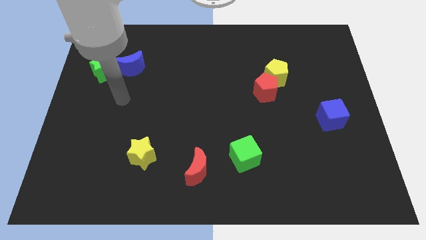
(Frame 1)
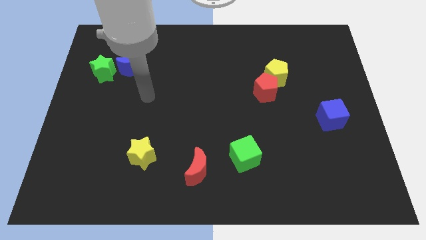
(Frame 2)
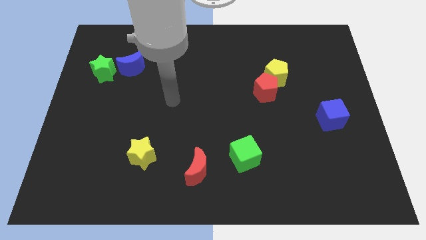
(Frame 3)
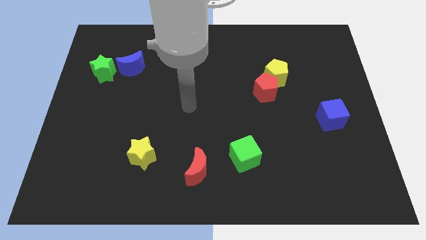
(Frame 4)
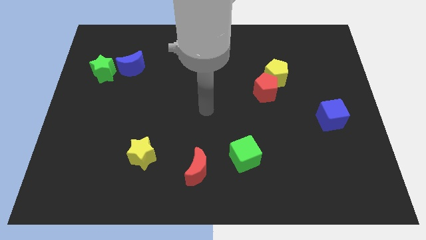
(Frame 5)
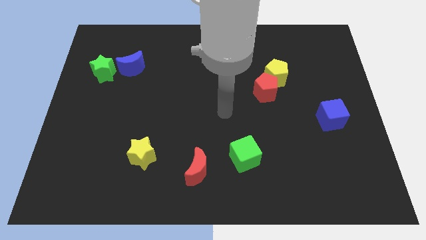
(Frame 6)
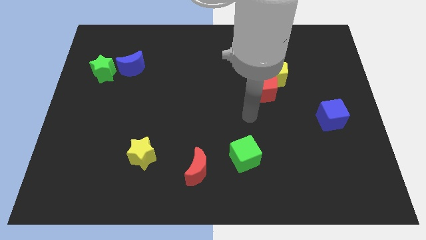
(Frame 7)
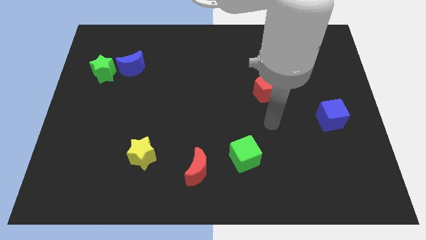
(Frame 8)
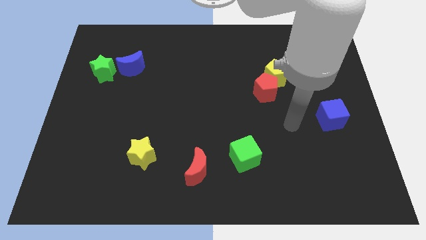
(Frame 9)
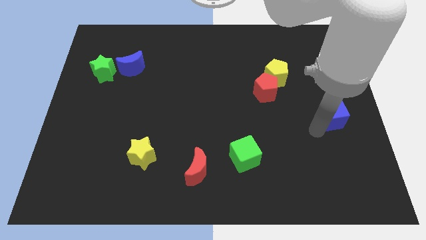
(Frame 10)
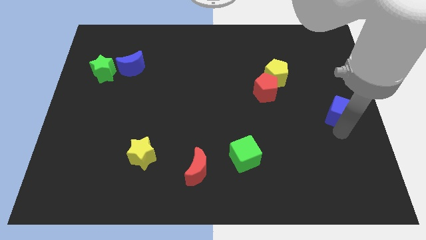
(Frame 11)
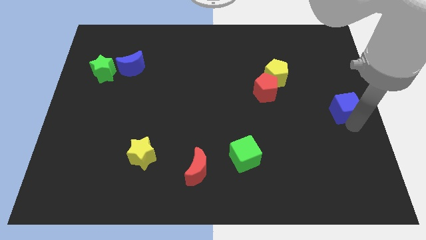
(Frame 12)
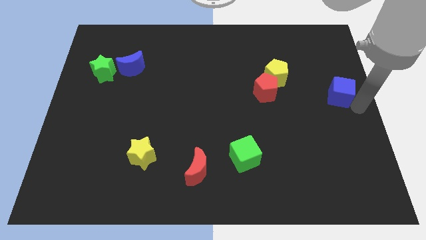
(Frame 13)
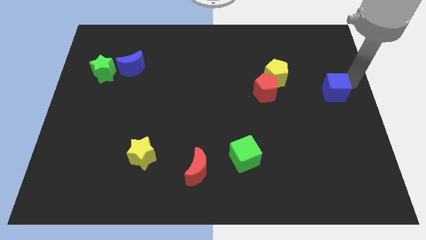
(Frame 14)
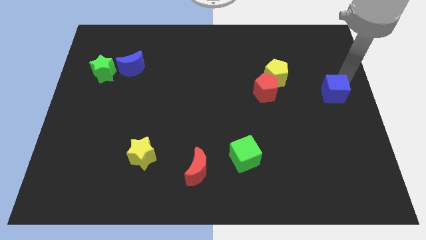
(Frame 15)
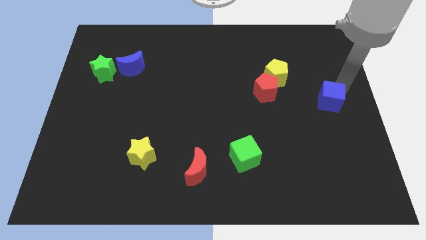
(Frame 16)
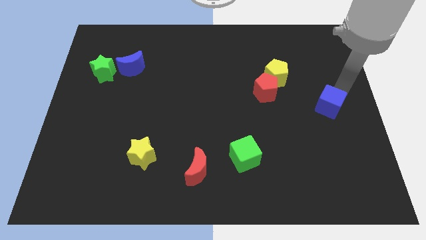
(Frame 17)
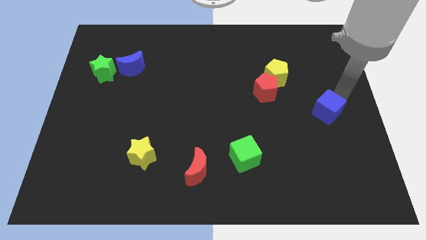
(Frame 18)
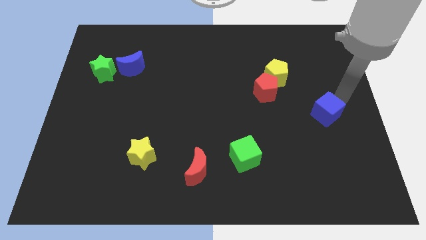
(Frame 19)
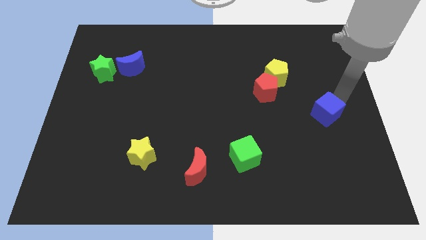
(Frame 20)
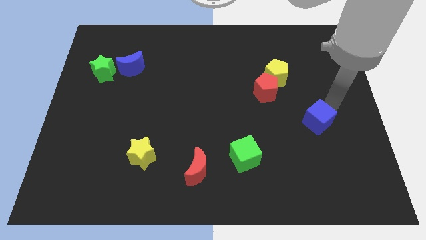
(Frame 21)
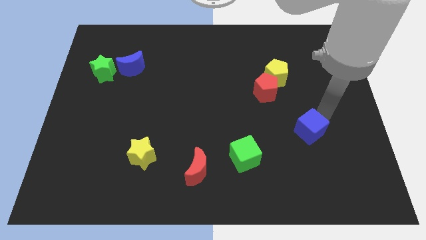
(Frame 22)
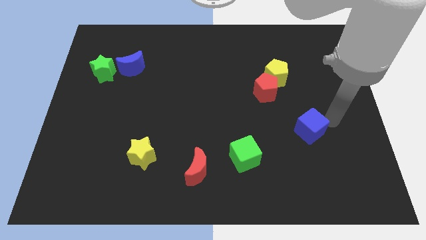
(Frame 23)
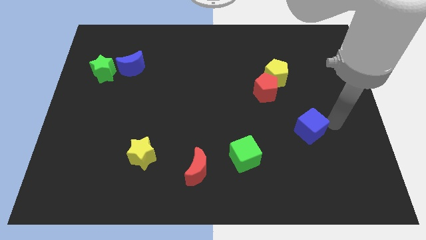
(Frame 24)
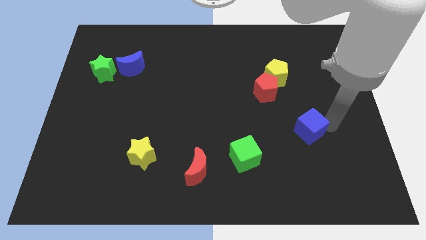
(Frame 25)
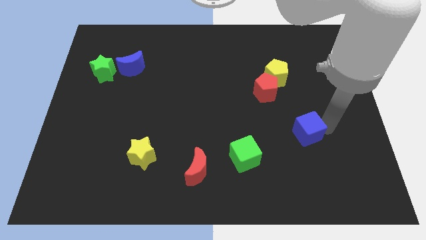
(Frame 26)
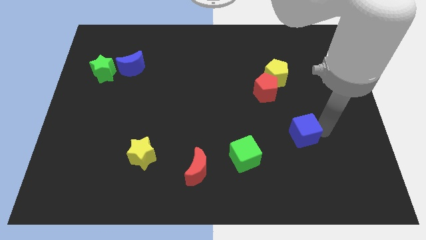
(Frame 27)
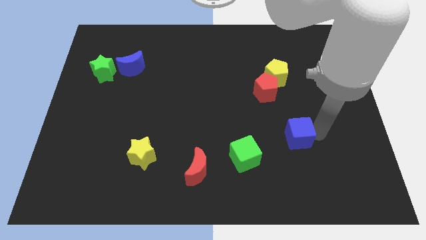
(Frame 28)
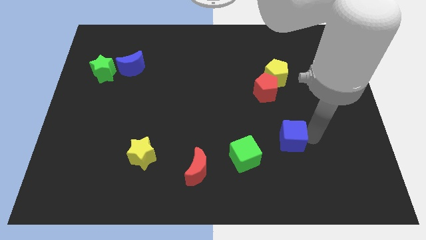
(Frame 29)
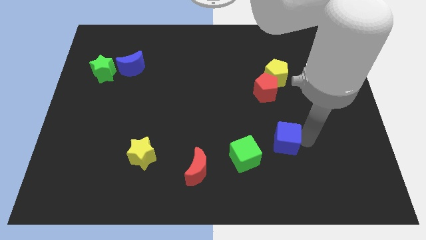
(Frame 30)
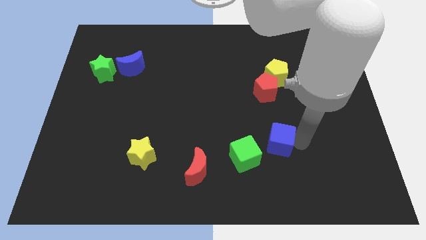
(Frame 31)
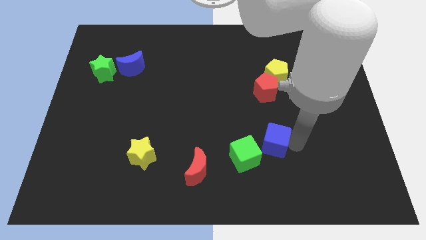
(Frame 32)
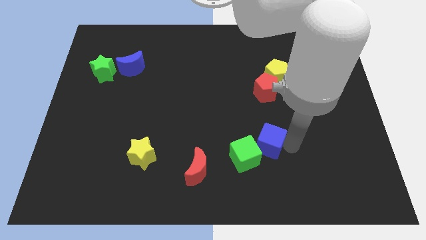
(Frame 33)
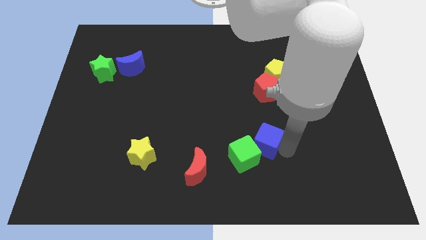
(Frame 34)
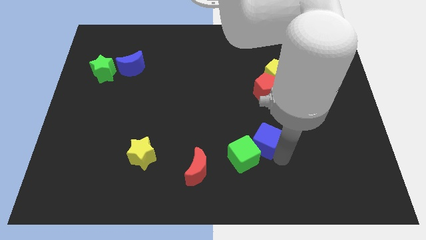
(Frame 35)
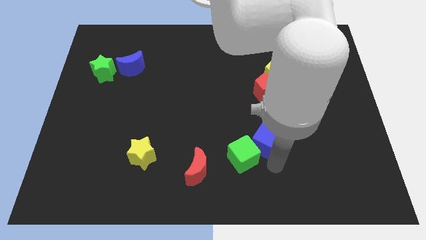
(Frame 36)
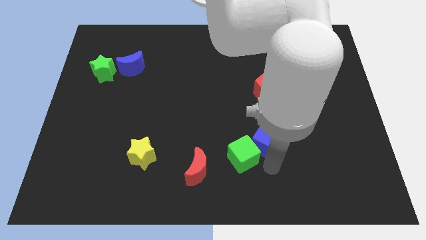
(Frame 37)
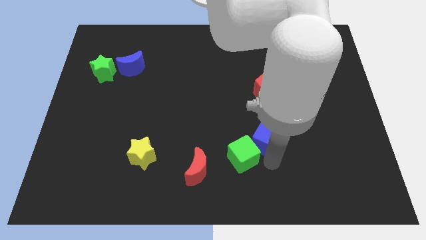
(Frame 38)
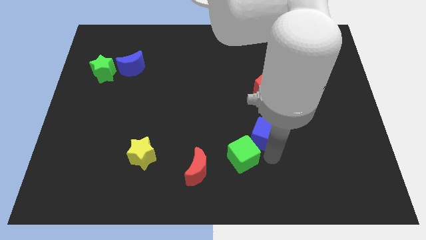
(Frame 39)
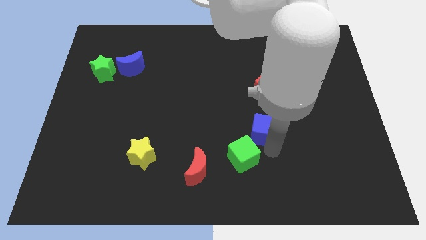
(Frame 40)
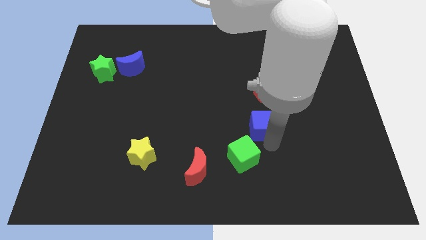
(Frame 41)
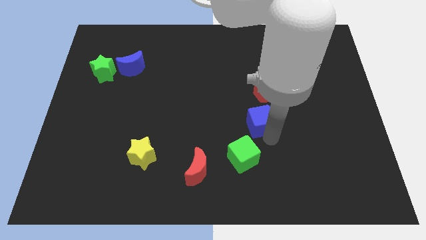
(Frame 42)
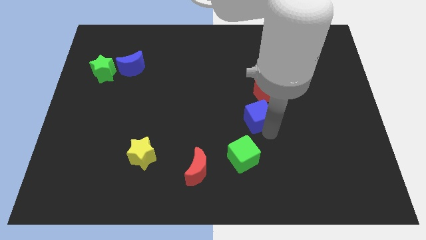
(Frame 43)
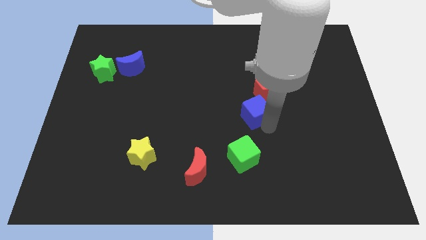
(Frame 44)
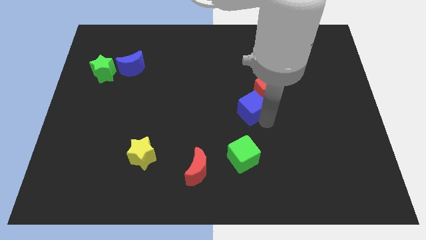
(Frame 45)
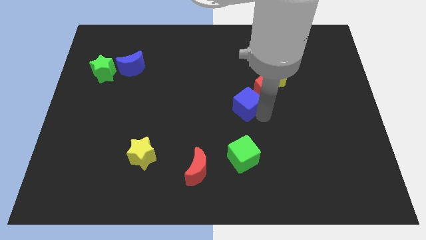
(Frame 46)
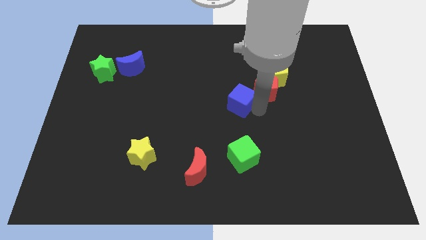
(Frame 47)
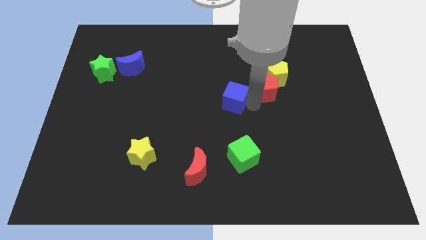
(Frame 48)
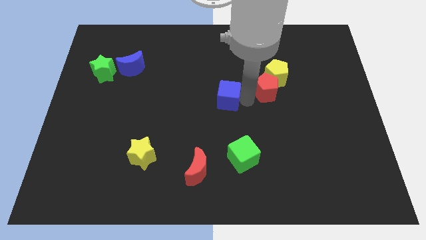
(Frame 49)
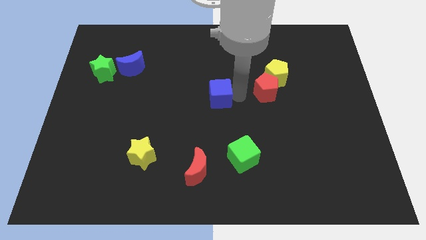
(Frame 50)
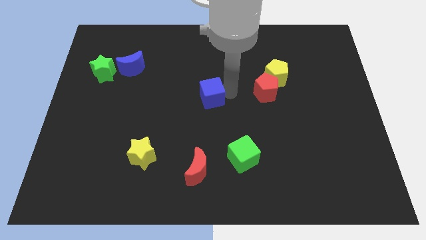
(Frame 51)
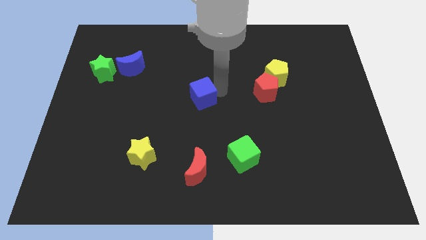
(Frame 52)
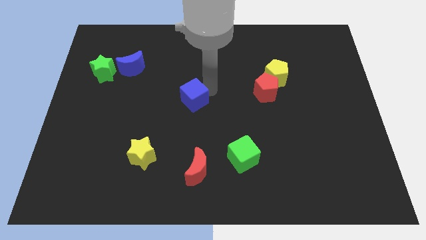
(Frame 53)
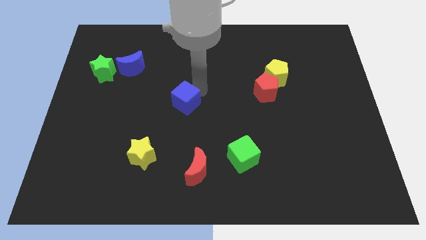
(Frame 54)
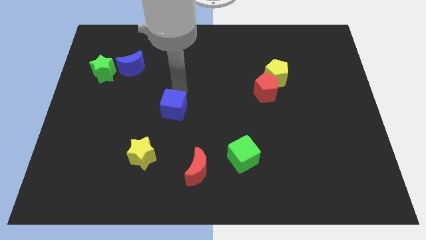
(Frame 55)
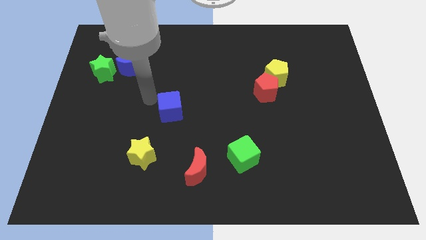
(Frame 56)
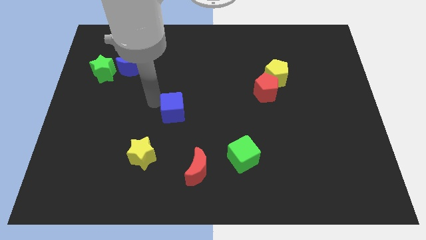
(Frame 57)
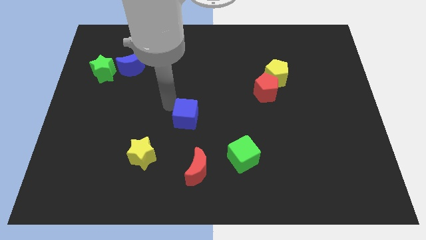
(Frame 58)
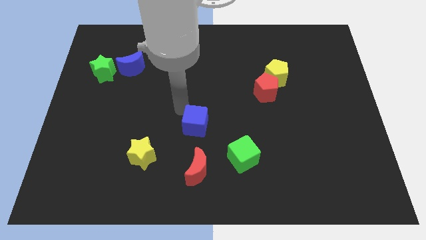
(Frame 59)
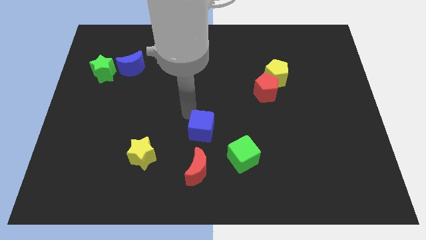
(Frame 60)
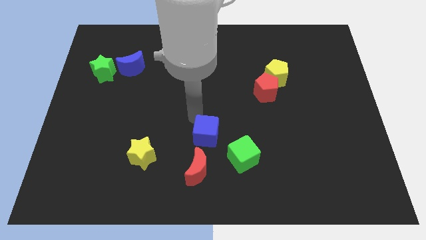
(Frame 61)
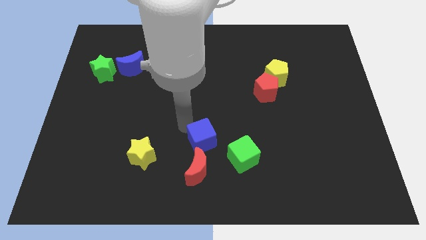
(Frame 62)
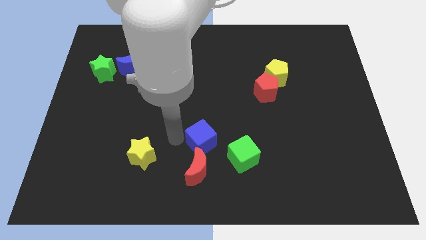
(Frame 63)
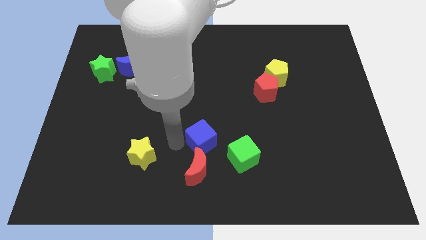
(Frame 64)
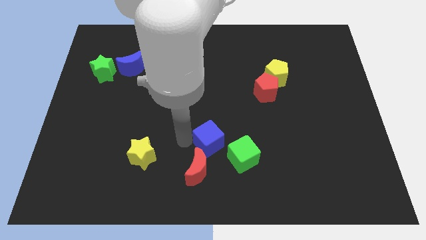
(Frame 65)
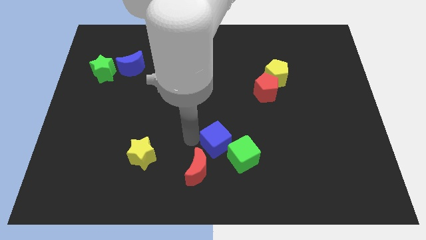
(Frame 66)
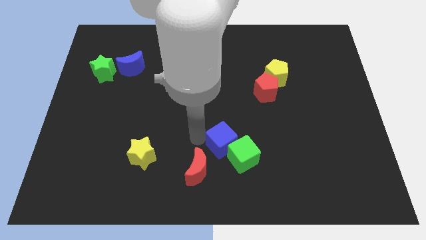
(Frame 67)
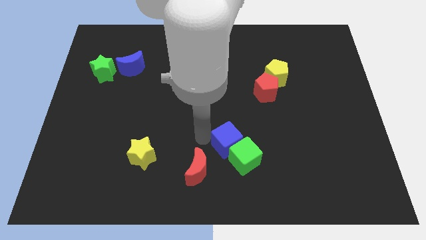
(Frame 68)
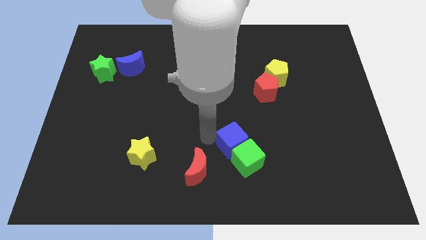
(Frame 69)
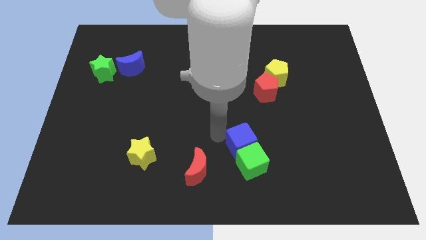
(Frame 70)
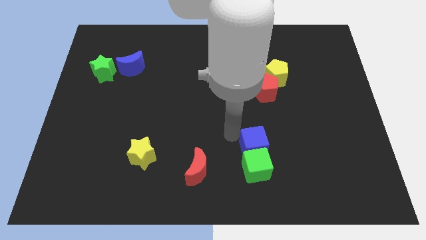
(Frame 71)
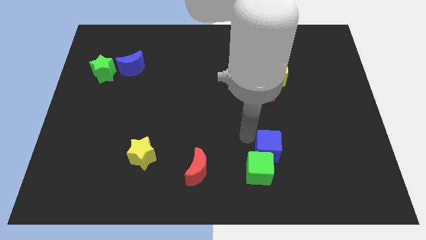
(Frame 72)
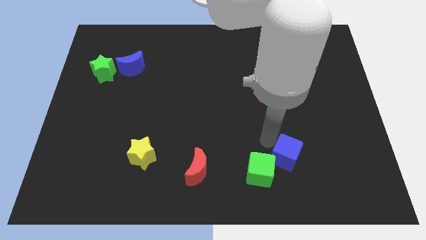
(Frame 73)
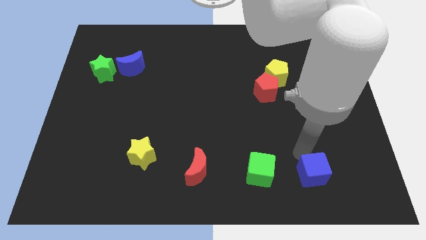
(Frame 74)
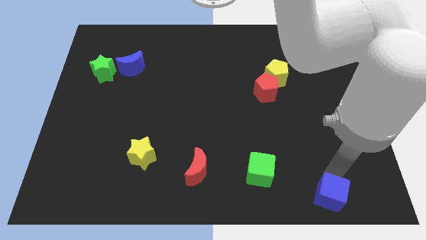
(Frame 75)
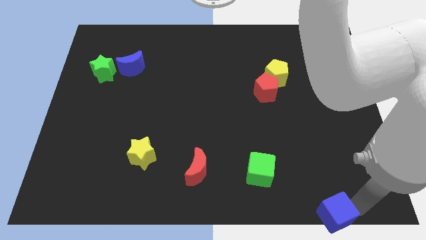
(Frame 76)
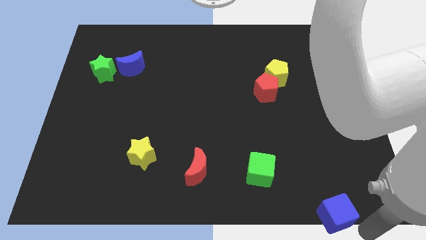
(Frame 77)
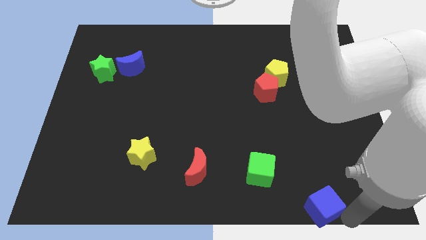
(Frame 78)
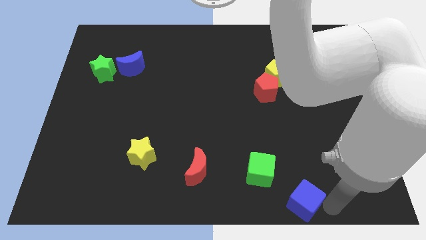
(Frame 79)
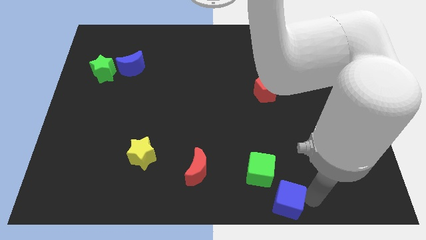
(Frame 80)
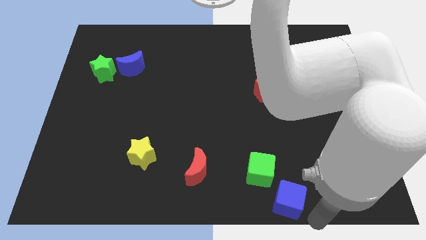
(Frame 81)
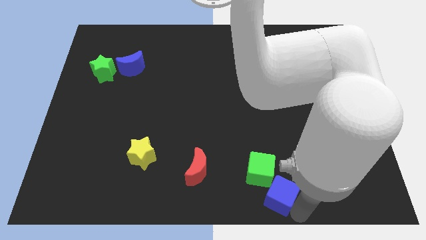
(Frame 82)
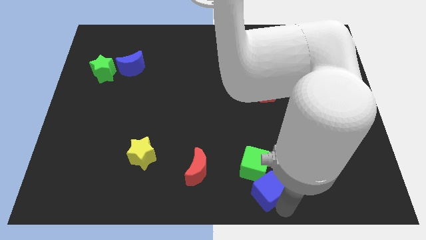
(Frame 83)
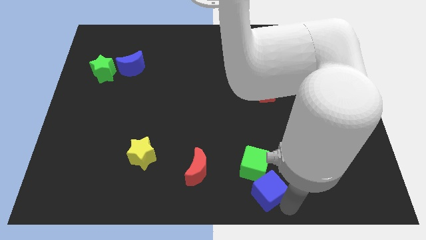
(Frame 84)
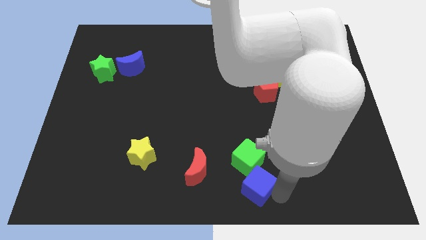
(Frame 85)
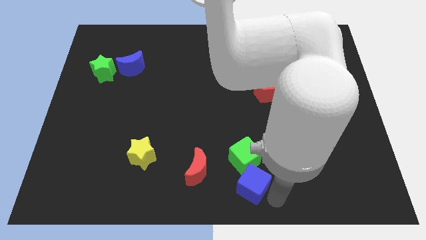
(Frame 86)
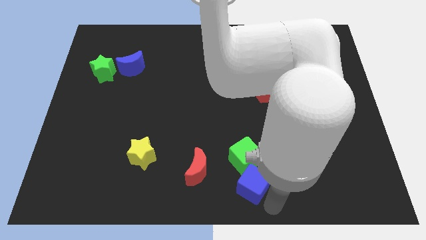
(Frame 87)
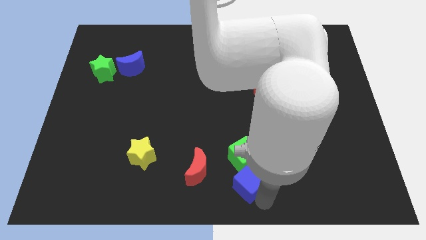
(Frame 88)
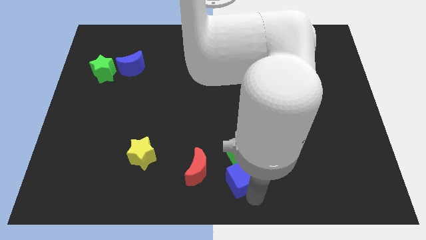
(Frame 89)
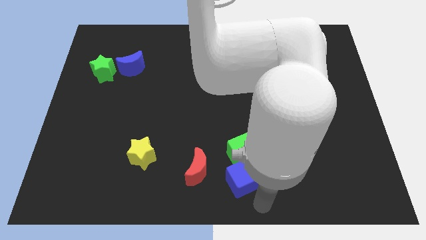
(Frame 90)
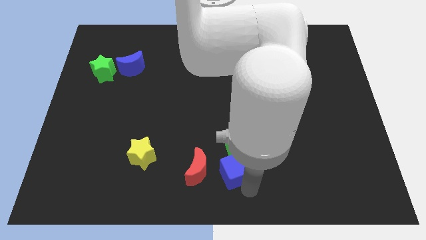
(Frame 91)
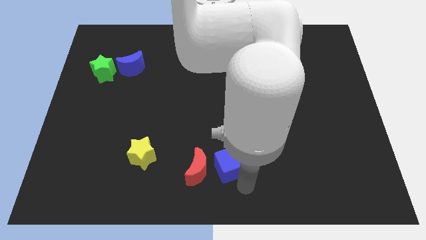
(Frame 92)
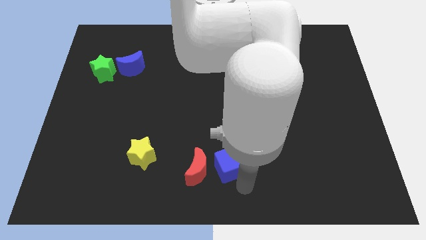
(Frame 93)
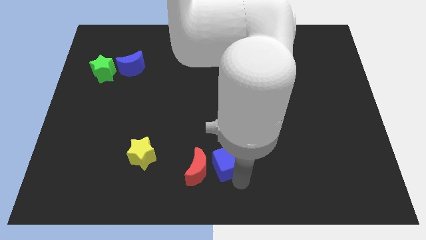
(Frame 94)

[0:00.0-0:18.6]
push the blue cube close to the red moon
